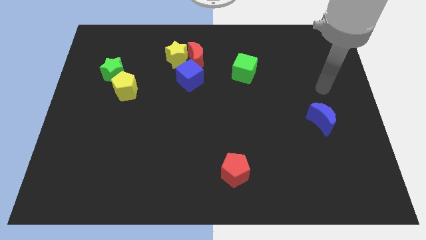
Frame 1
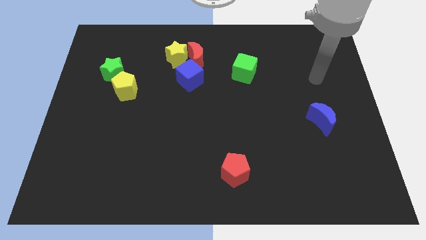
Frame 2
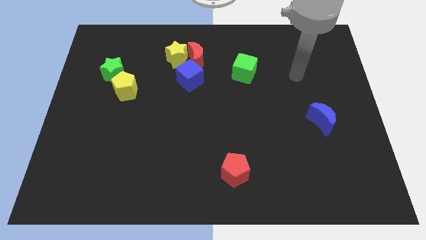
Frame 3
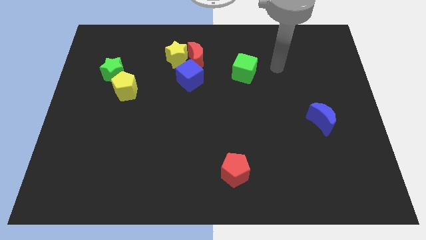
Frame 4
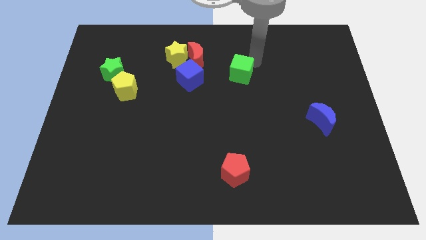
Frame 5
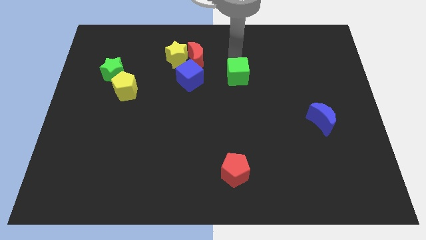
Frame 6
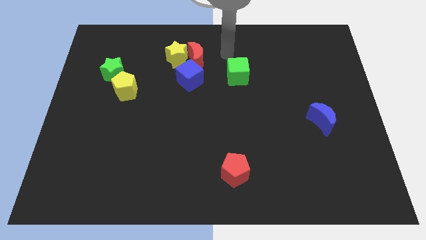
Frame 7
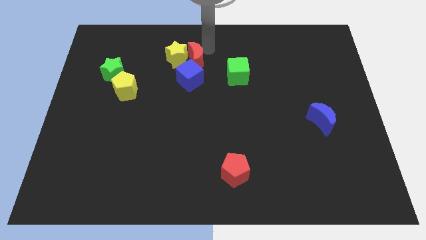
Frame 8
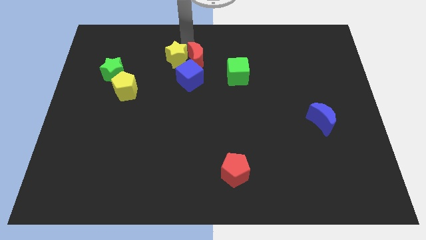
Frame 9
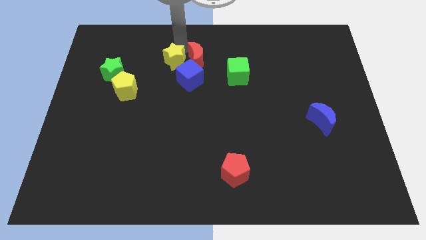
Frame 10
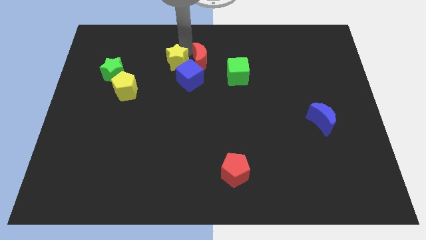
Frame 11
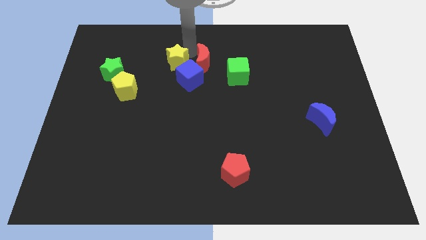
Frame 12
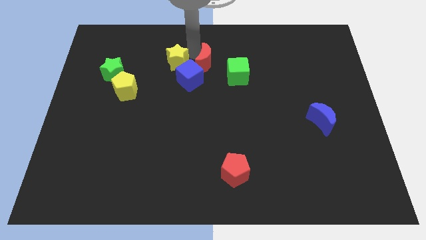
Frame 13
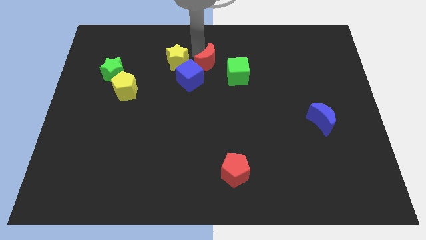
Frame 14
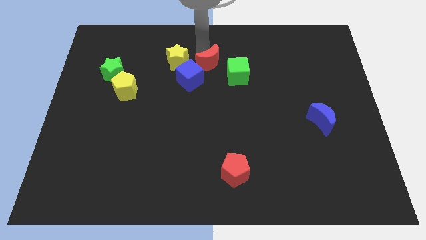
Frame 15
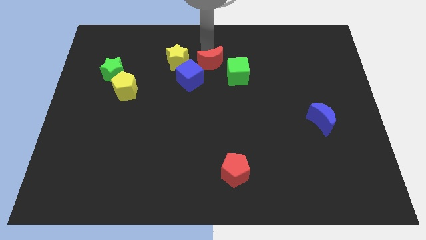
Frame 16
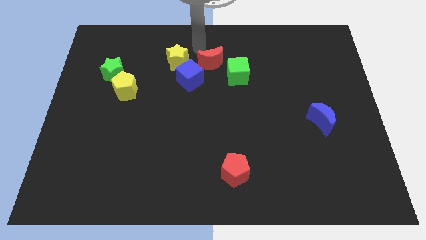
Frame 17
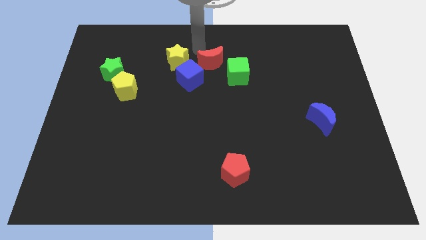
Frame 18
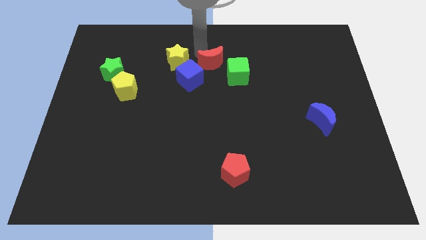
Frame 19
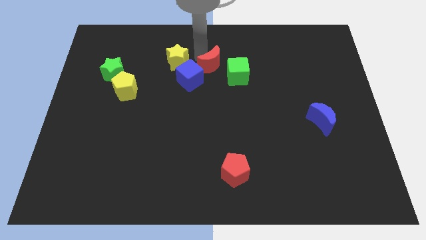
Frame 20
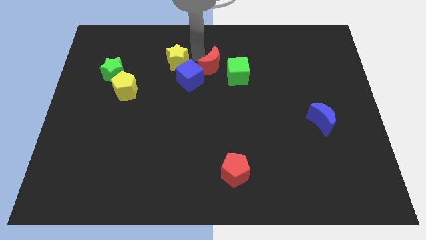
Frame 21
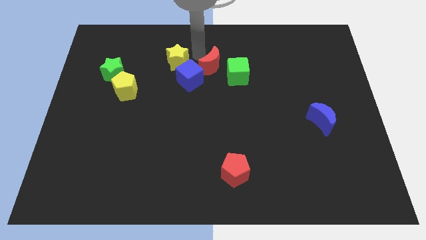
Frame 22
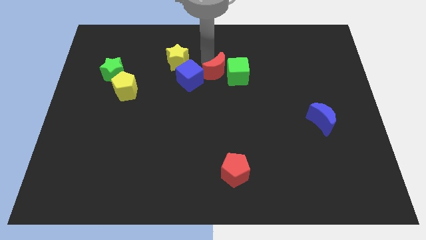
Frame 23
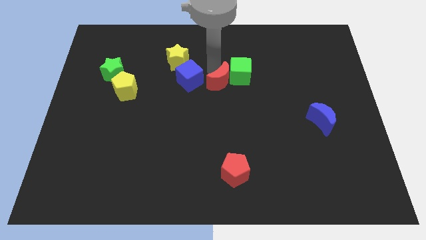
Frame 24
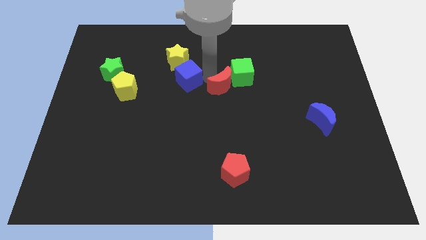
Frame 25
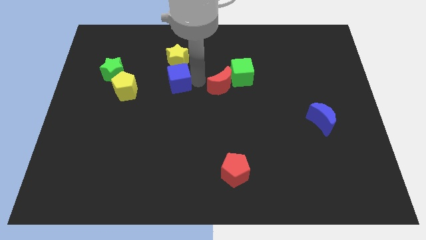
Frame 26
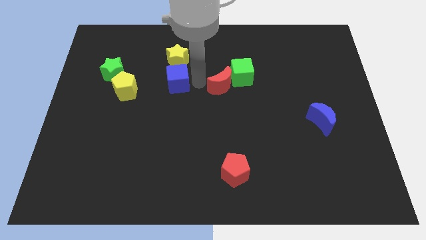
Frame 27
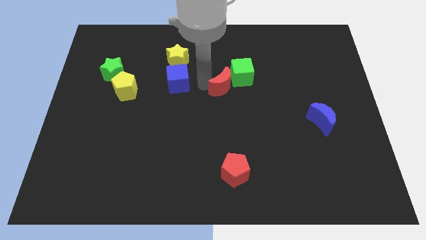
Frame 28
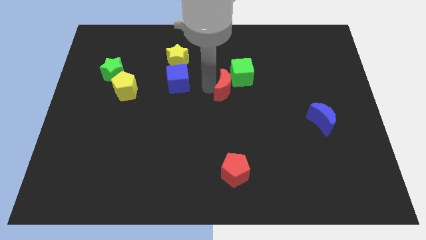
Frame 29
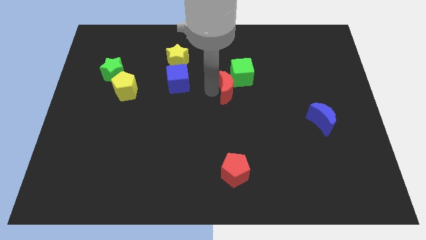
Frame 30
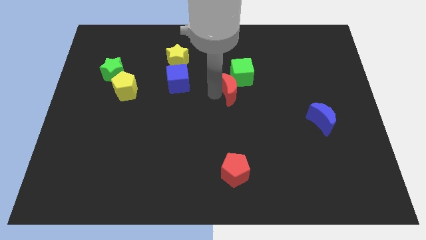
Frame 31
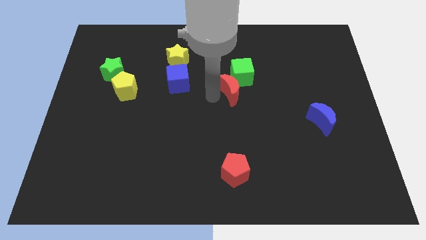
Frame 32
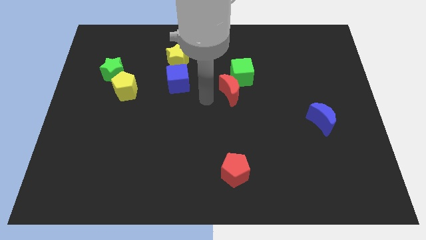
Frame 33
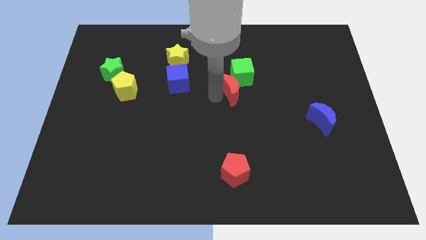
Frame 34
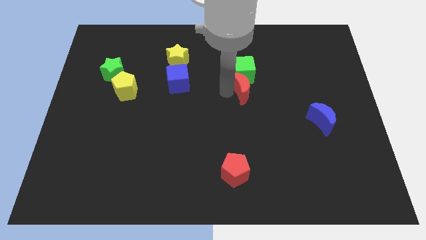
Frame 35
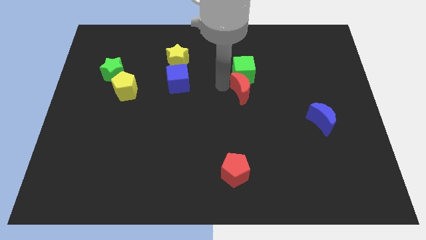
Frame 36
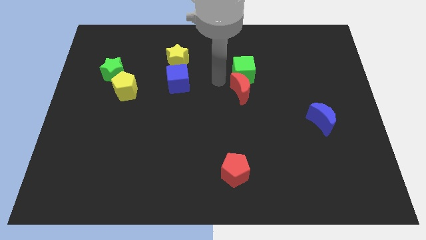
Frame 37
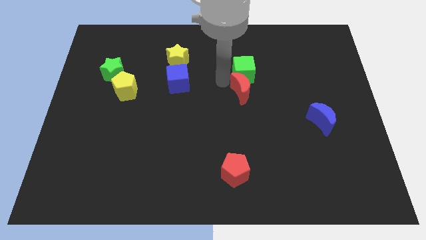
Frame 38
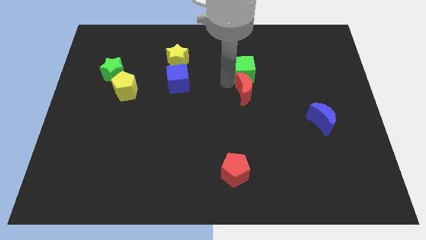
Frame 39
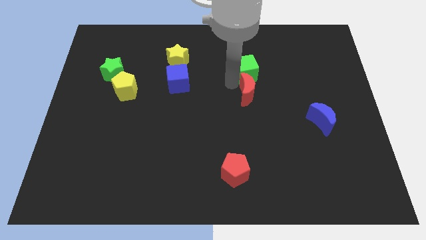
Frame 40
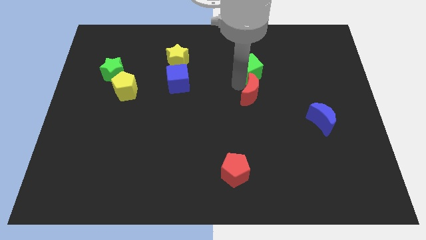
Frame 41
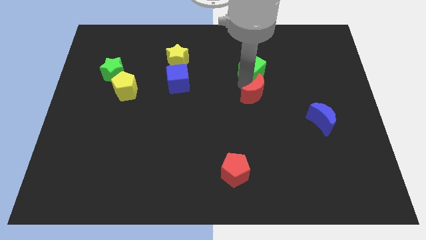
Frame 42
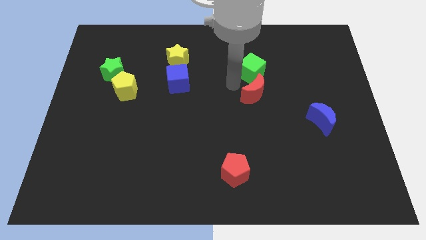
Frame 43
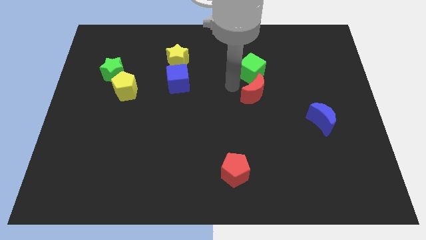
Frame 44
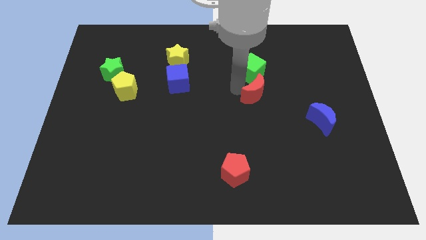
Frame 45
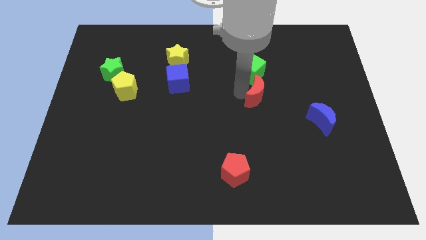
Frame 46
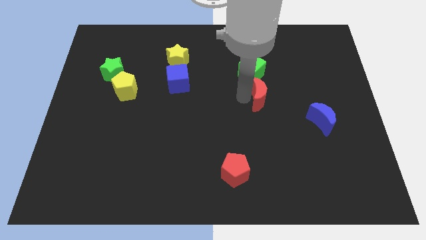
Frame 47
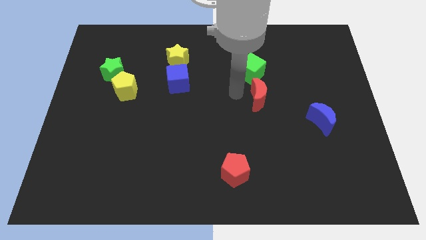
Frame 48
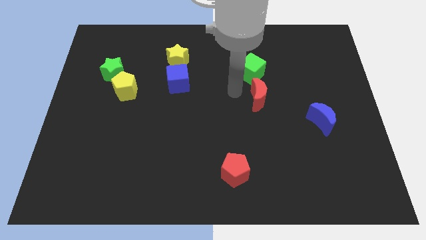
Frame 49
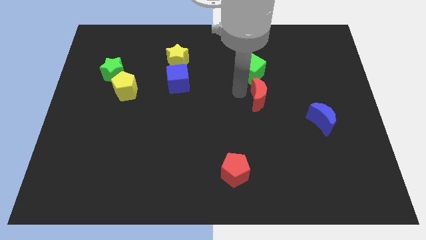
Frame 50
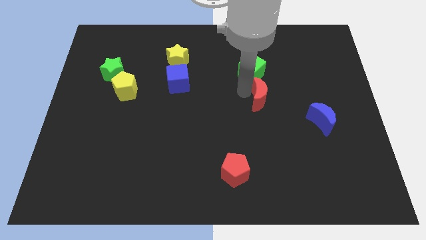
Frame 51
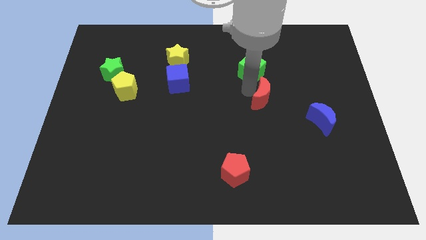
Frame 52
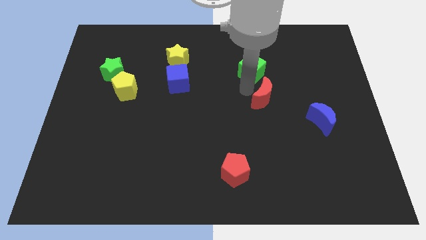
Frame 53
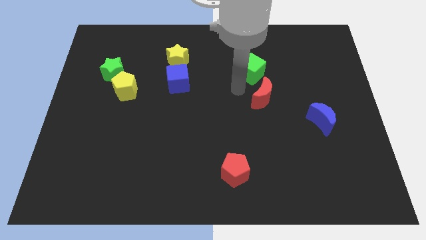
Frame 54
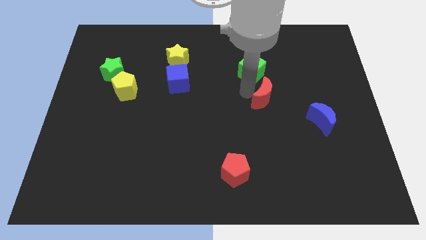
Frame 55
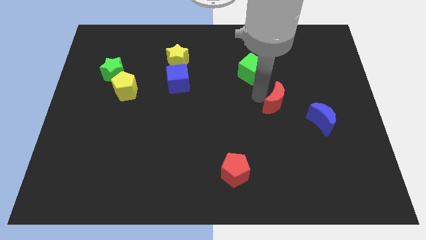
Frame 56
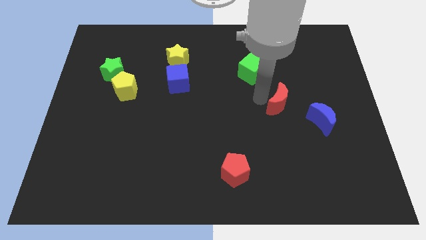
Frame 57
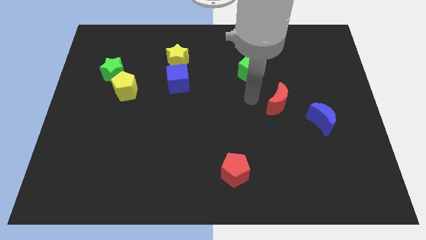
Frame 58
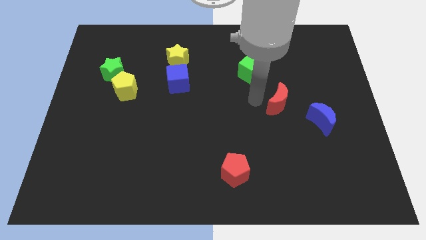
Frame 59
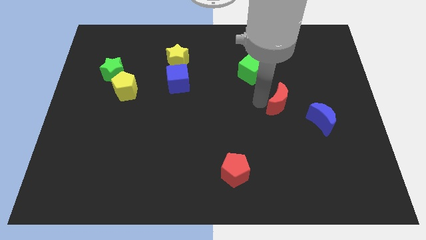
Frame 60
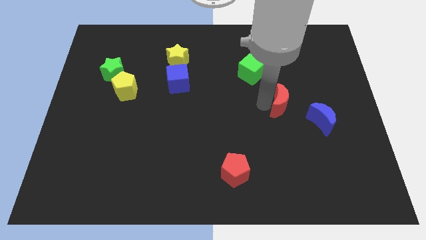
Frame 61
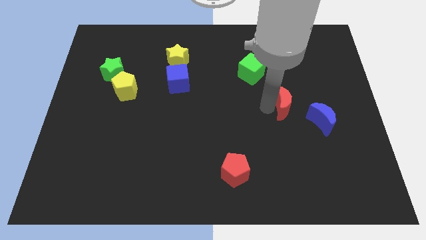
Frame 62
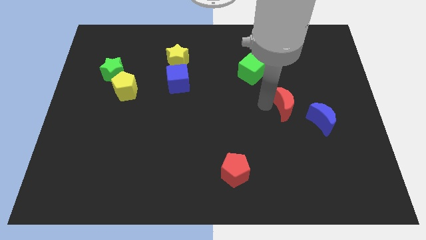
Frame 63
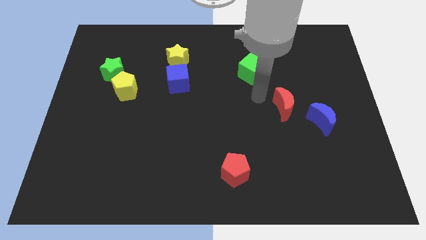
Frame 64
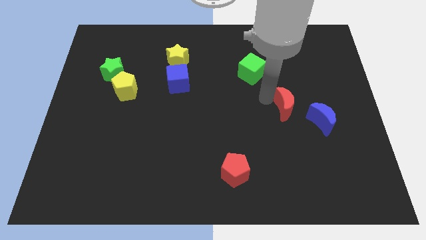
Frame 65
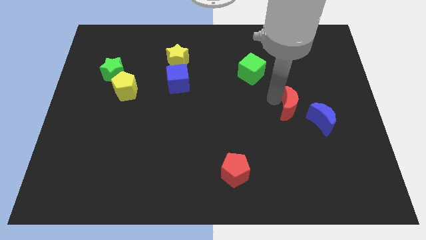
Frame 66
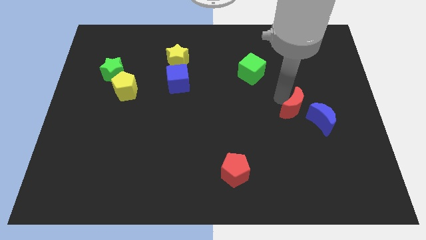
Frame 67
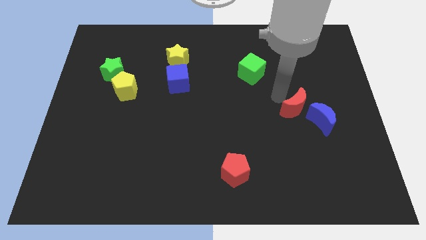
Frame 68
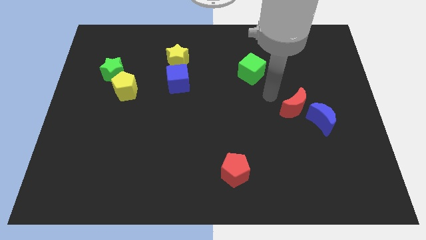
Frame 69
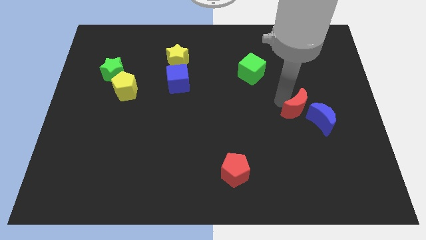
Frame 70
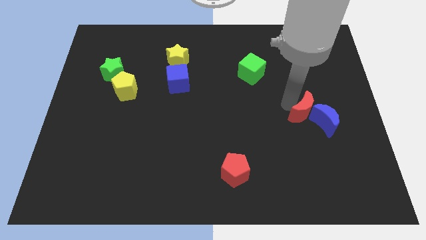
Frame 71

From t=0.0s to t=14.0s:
put the red moon towards the blue moon

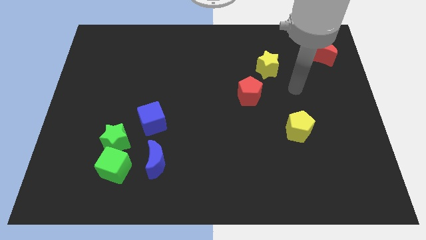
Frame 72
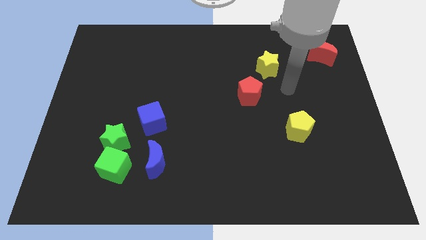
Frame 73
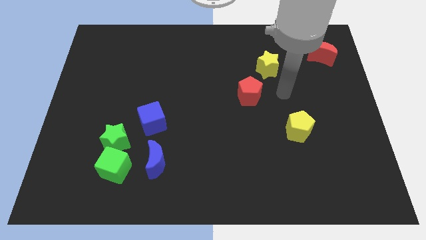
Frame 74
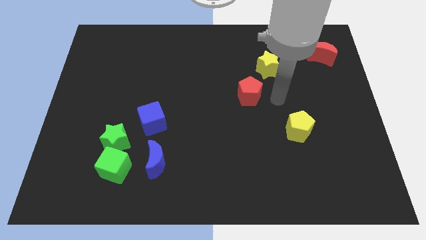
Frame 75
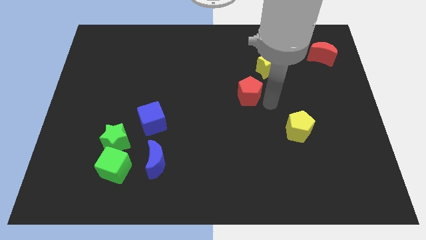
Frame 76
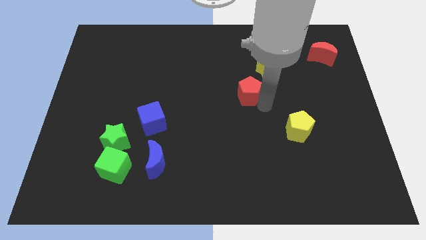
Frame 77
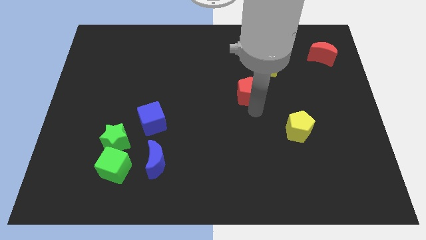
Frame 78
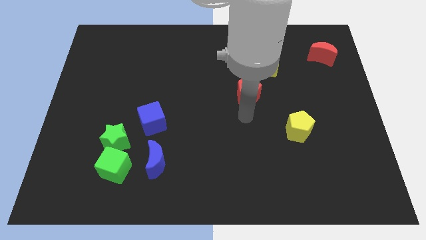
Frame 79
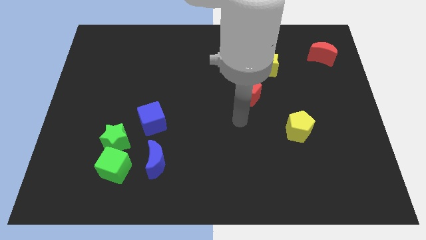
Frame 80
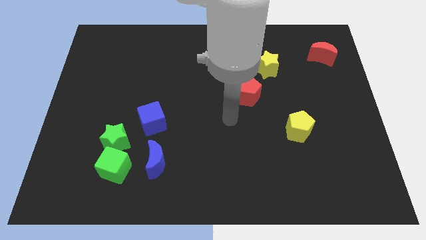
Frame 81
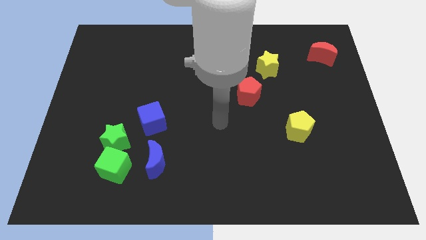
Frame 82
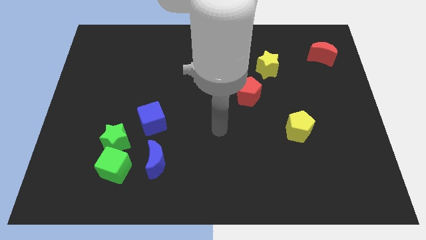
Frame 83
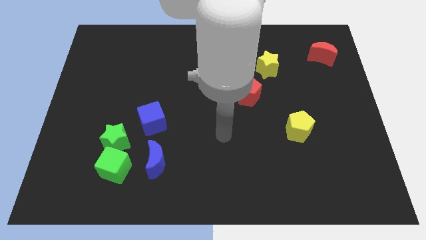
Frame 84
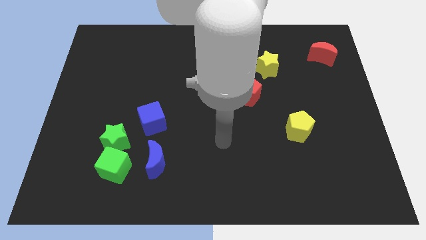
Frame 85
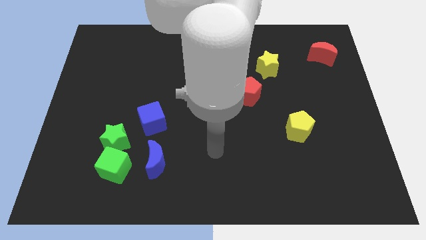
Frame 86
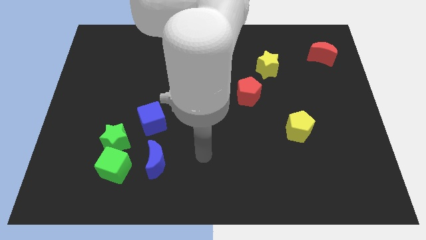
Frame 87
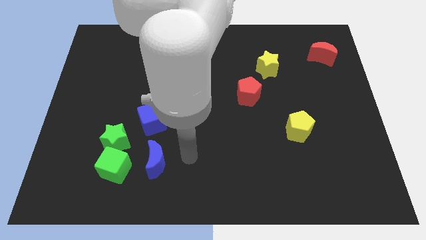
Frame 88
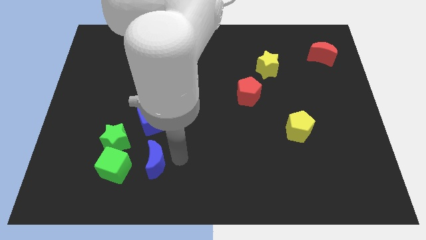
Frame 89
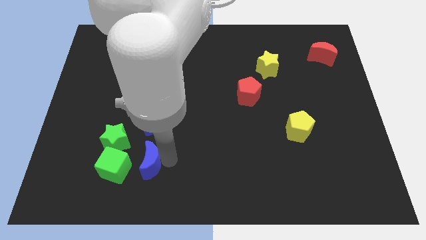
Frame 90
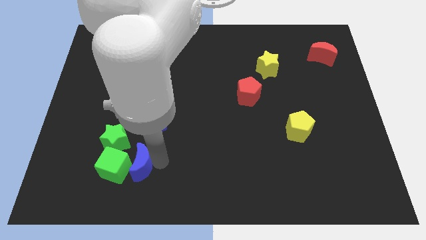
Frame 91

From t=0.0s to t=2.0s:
slide the blue moon next to the green cube
